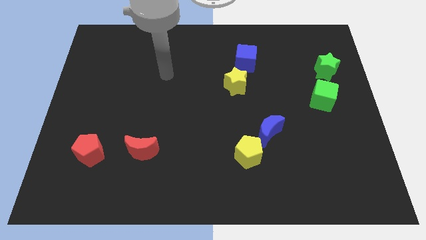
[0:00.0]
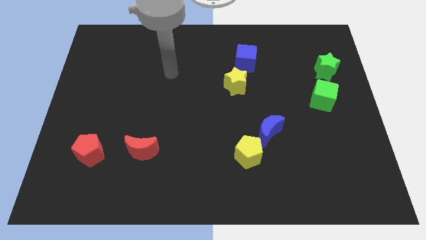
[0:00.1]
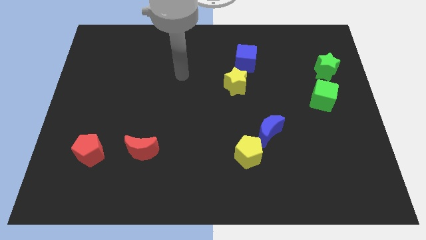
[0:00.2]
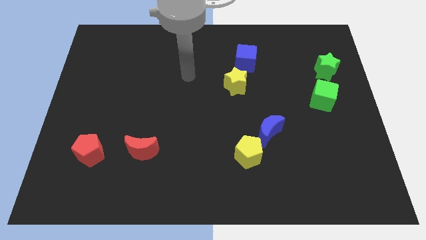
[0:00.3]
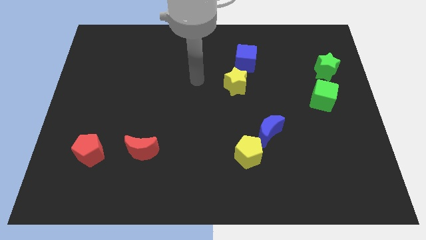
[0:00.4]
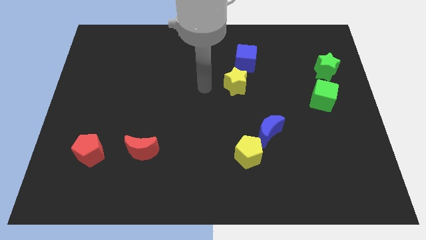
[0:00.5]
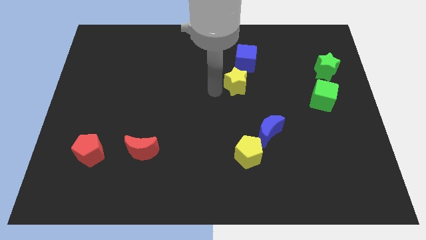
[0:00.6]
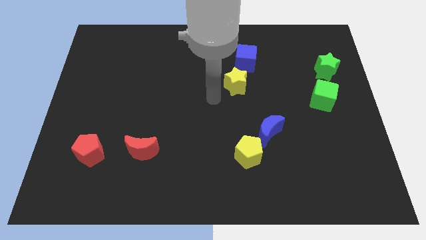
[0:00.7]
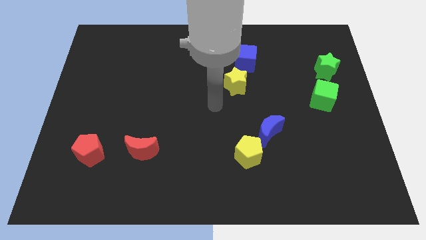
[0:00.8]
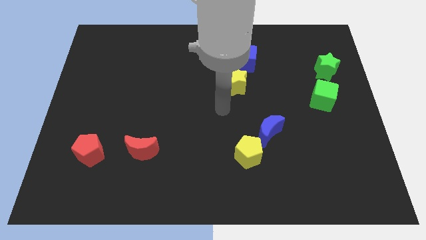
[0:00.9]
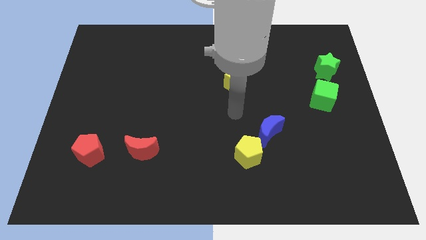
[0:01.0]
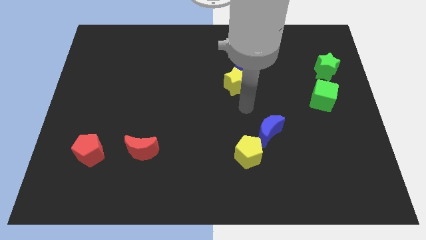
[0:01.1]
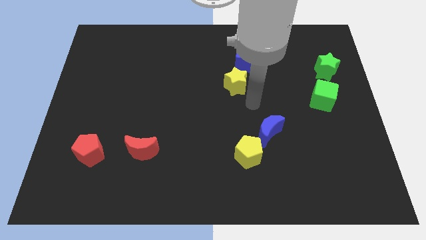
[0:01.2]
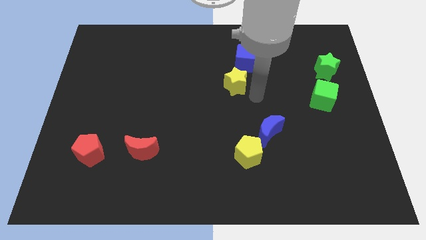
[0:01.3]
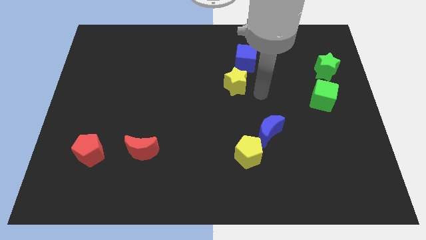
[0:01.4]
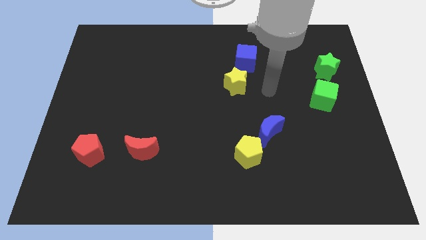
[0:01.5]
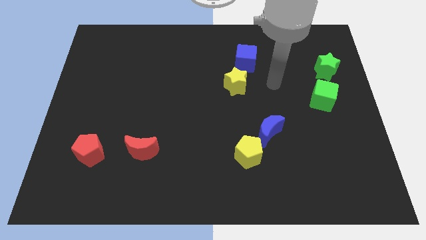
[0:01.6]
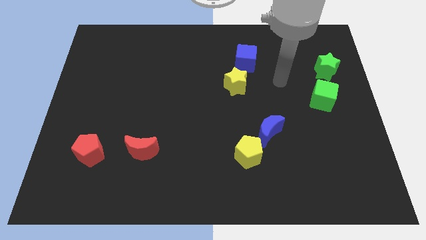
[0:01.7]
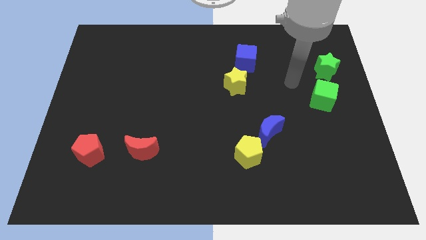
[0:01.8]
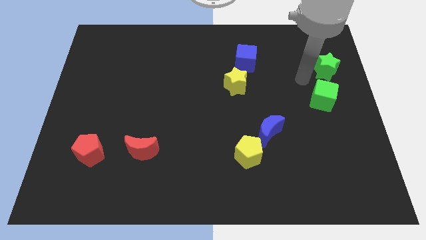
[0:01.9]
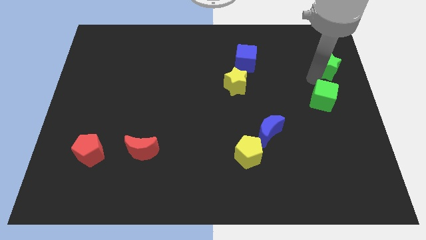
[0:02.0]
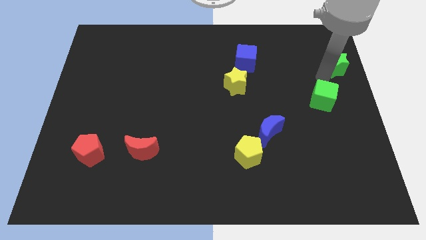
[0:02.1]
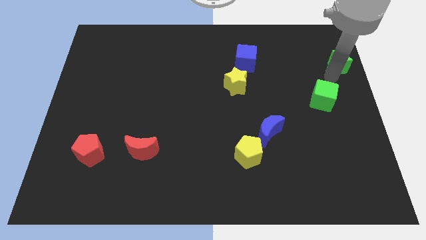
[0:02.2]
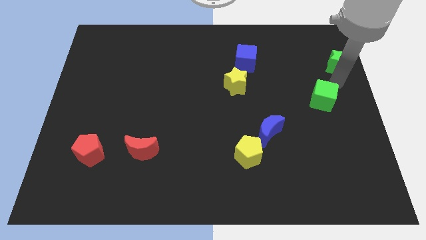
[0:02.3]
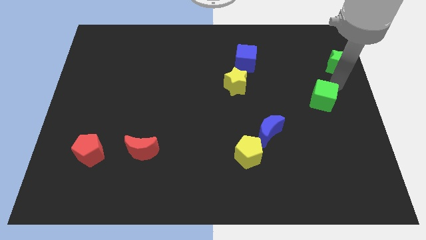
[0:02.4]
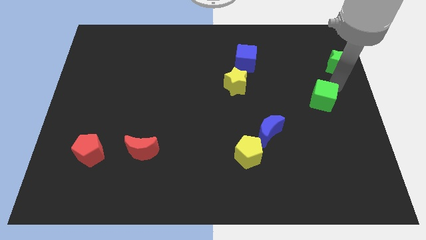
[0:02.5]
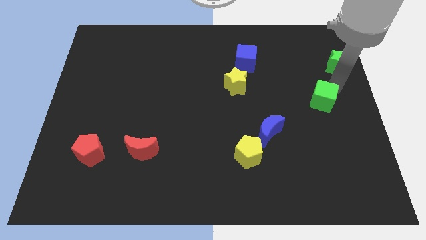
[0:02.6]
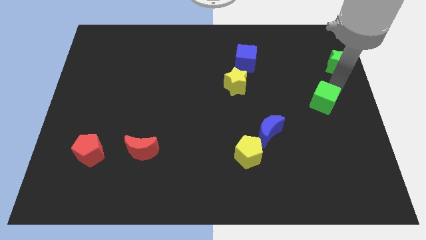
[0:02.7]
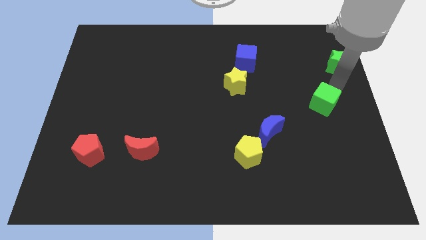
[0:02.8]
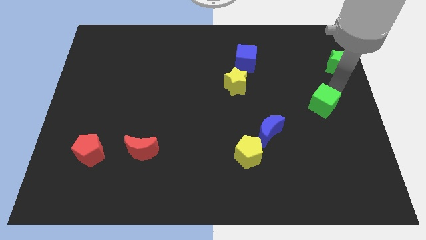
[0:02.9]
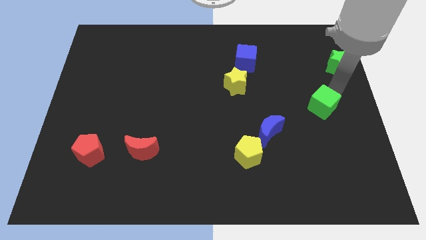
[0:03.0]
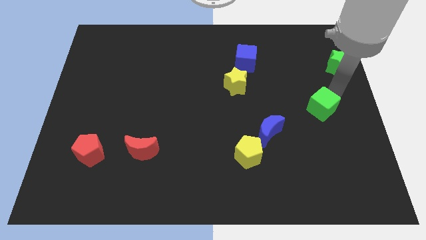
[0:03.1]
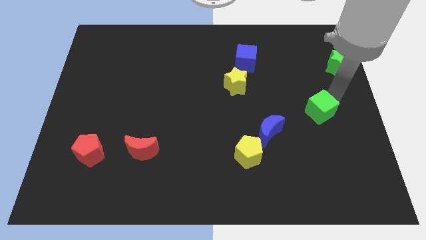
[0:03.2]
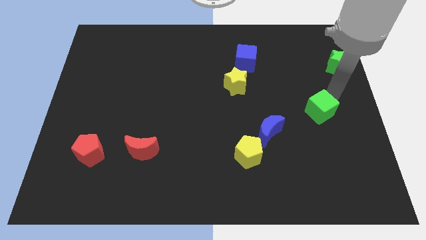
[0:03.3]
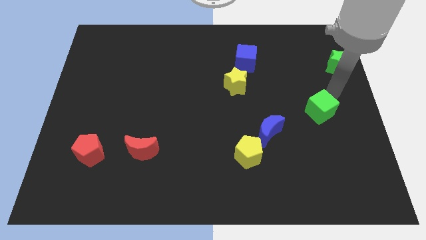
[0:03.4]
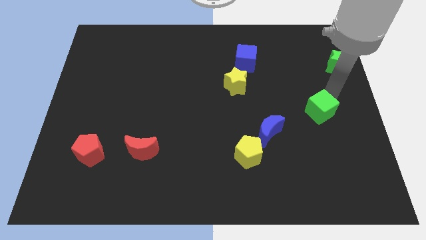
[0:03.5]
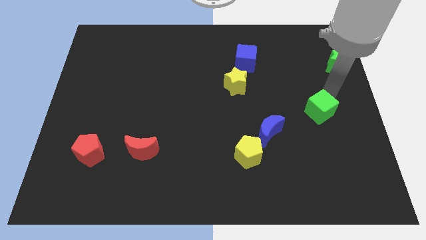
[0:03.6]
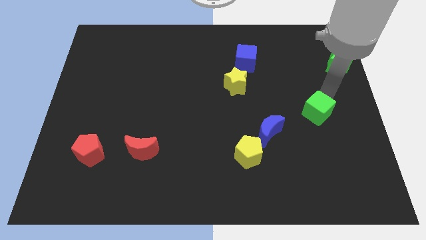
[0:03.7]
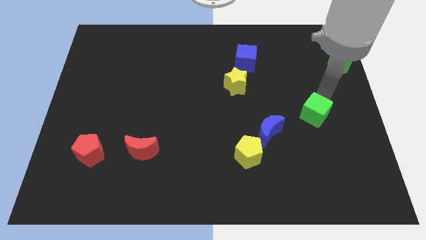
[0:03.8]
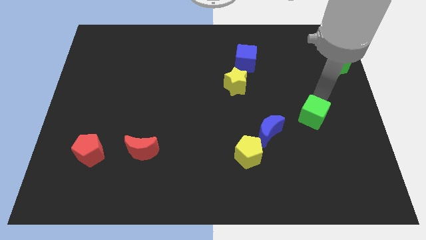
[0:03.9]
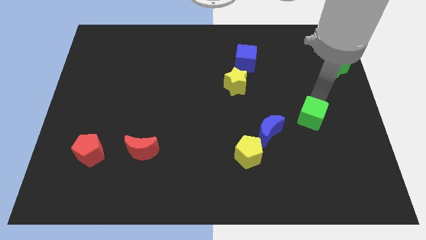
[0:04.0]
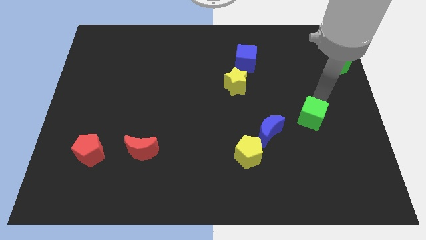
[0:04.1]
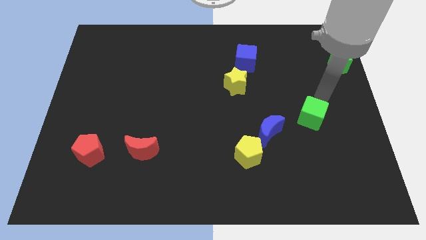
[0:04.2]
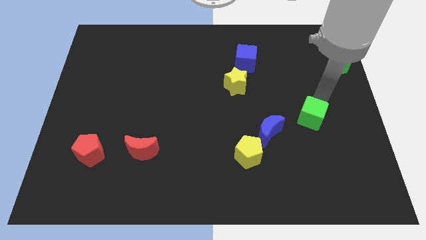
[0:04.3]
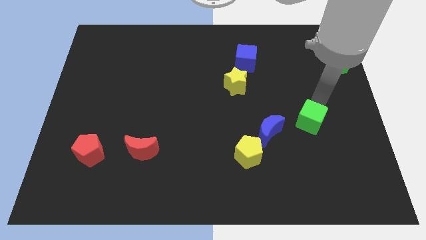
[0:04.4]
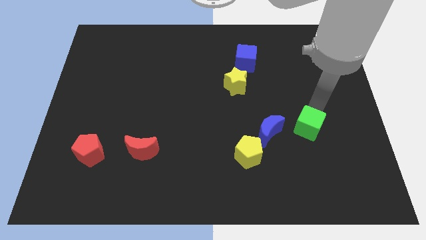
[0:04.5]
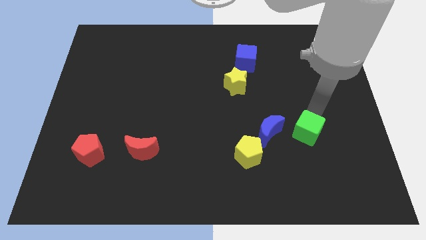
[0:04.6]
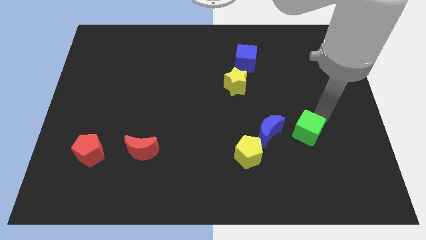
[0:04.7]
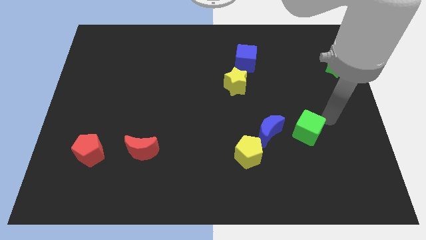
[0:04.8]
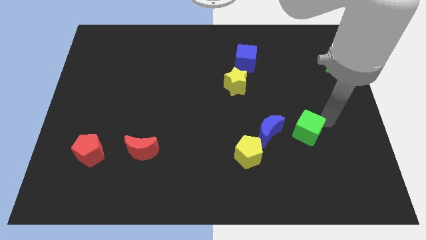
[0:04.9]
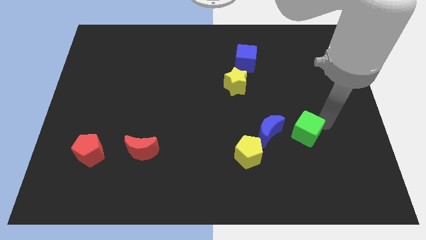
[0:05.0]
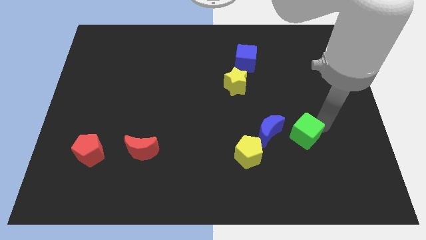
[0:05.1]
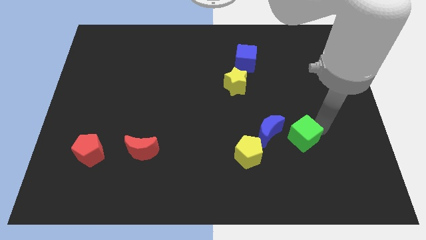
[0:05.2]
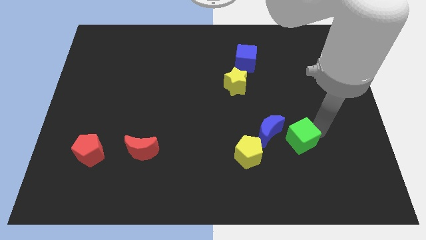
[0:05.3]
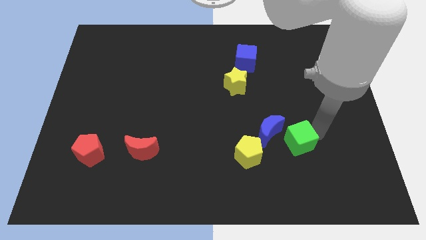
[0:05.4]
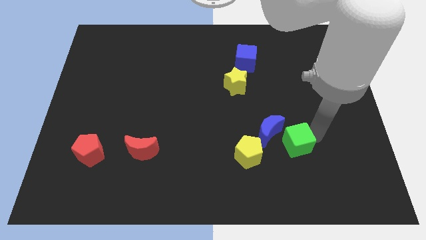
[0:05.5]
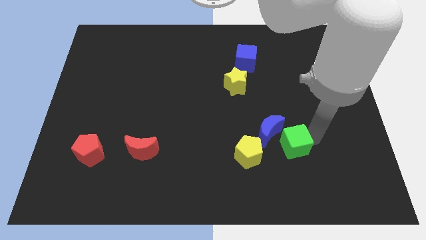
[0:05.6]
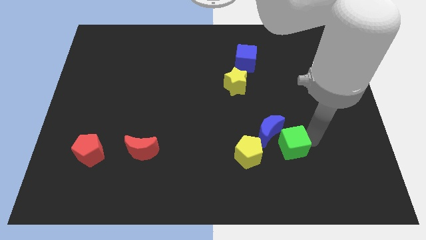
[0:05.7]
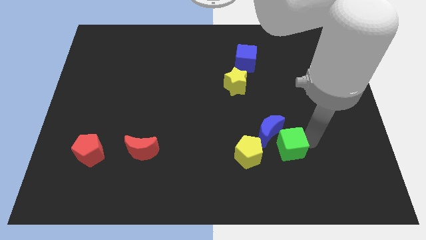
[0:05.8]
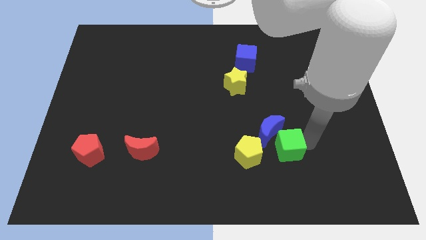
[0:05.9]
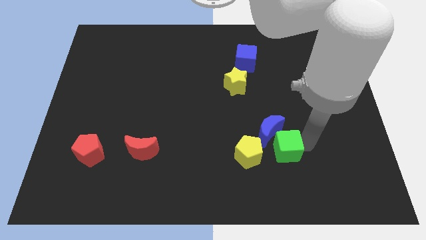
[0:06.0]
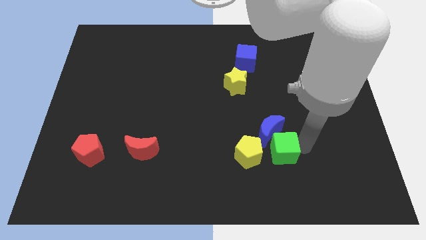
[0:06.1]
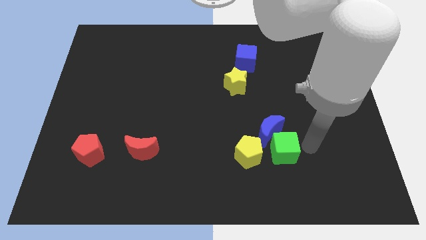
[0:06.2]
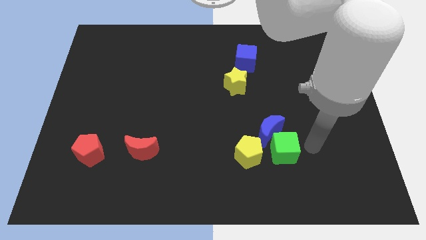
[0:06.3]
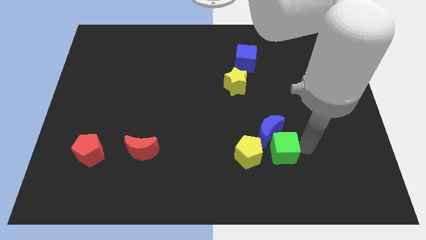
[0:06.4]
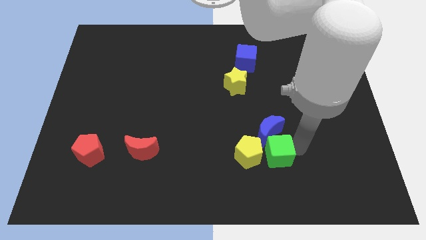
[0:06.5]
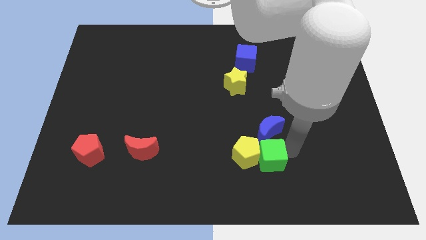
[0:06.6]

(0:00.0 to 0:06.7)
move the green cube close to the yellow pentagon

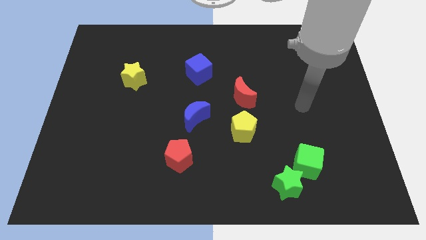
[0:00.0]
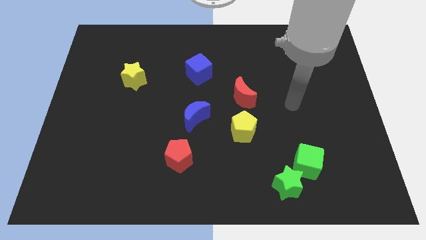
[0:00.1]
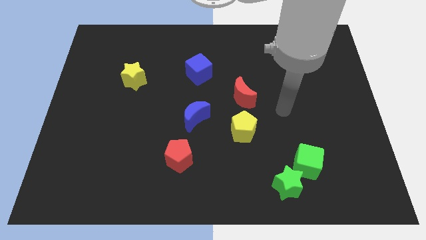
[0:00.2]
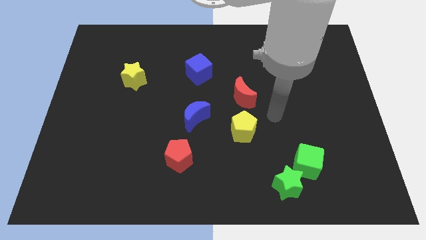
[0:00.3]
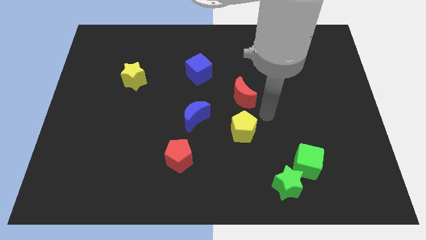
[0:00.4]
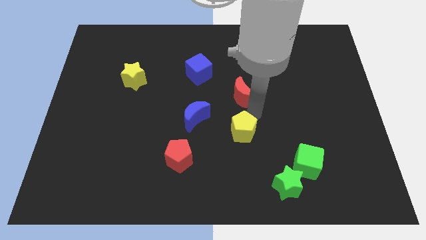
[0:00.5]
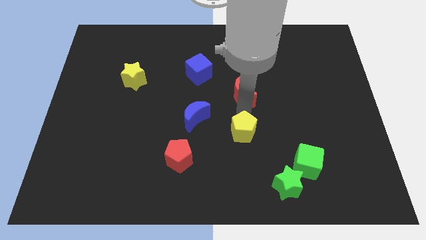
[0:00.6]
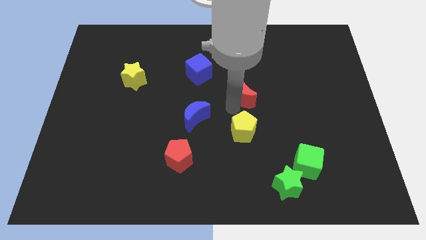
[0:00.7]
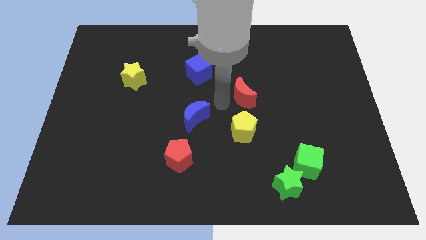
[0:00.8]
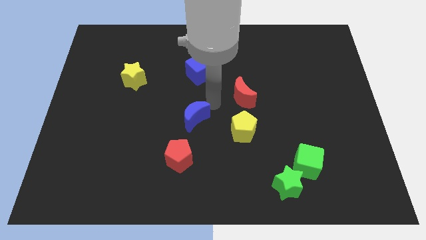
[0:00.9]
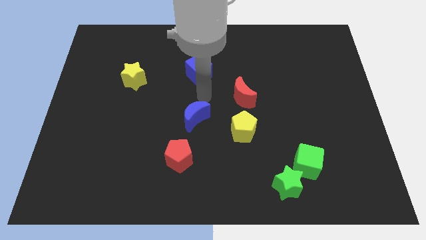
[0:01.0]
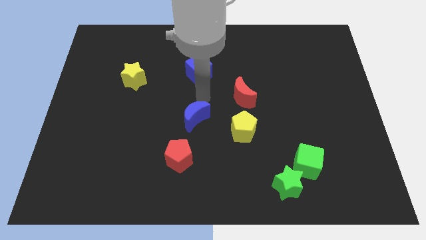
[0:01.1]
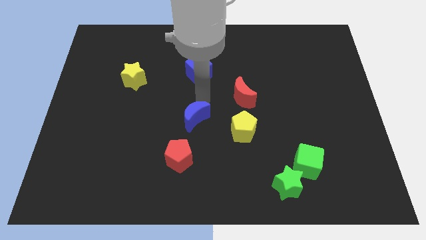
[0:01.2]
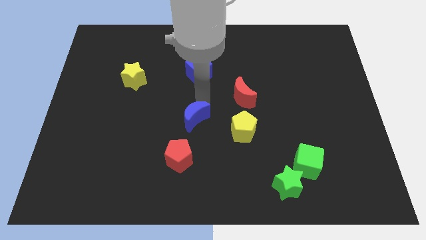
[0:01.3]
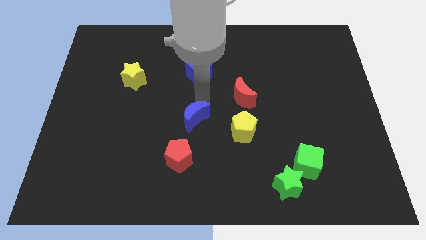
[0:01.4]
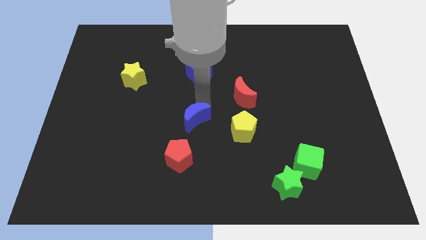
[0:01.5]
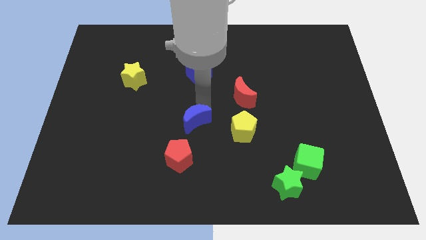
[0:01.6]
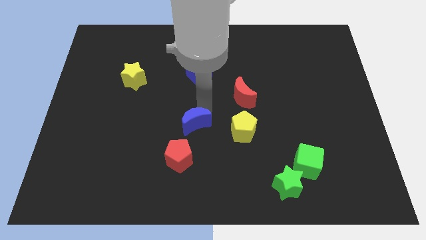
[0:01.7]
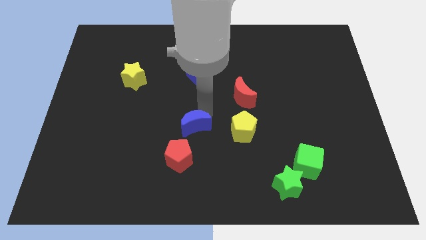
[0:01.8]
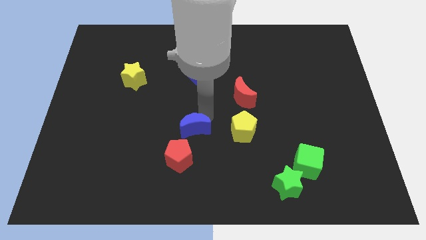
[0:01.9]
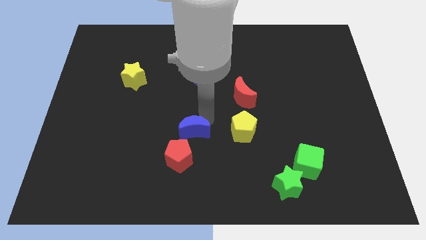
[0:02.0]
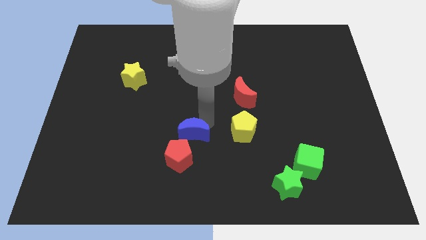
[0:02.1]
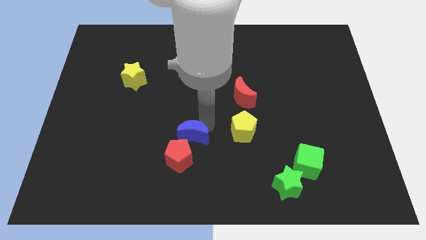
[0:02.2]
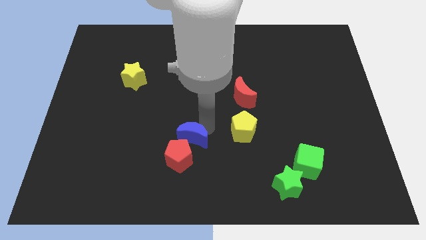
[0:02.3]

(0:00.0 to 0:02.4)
push the blue moon close to the red pentagon
